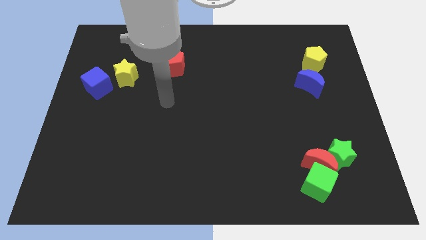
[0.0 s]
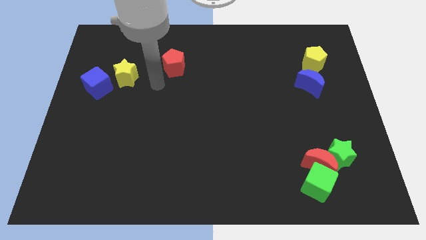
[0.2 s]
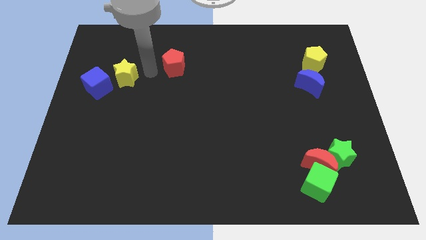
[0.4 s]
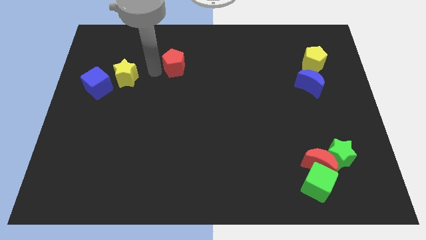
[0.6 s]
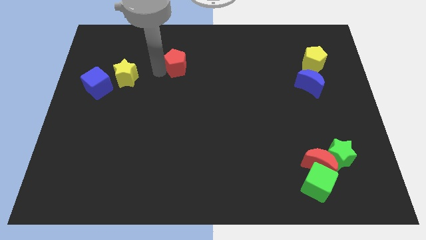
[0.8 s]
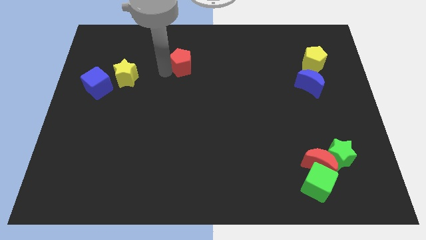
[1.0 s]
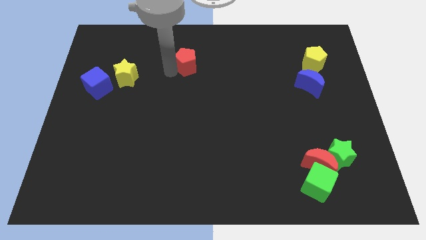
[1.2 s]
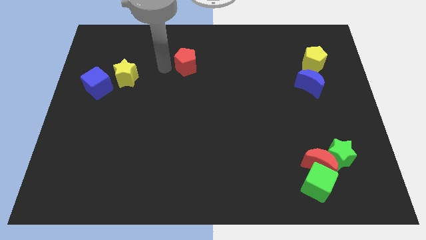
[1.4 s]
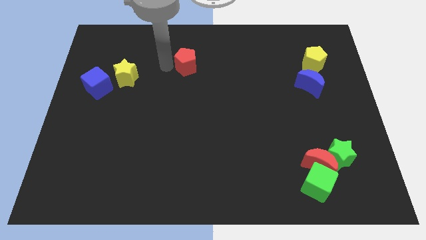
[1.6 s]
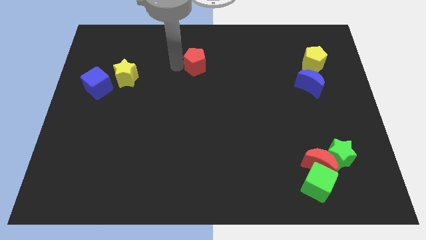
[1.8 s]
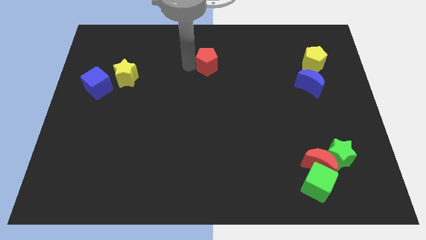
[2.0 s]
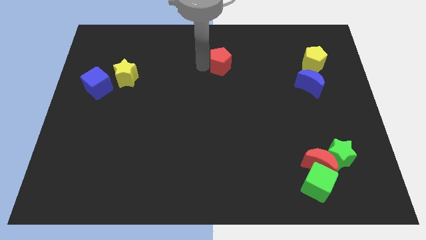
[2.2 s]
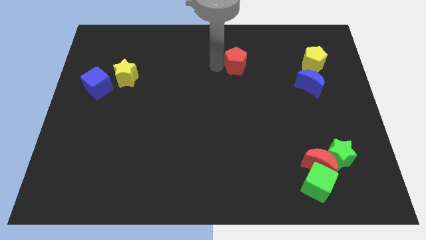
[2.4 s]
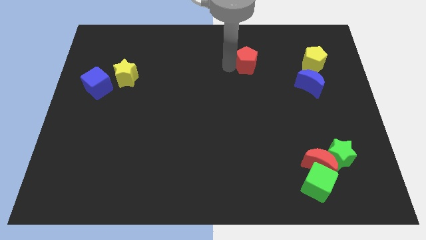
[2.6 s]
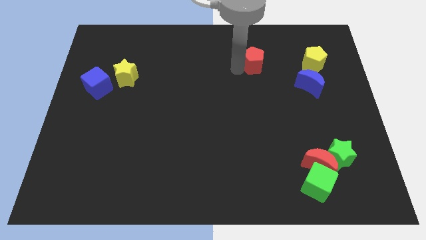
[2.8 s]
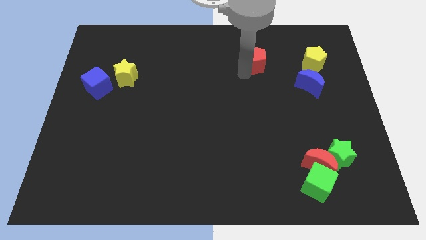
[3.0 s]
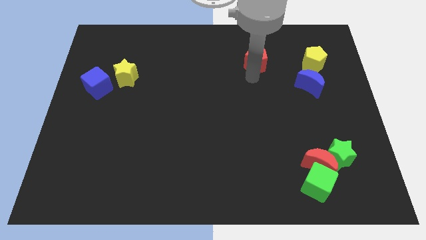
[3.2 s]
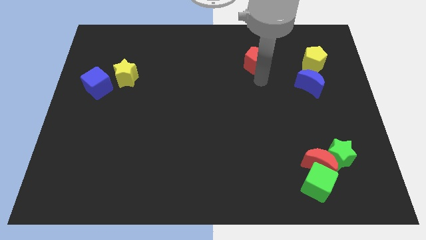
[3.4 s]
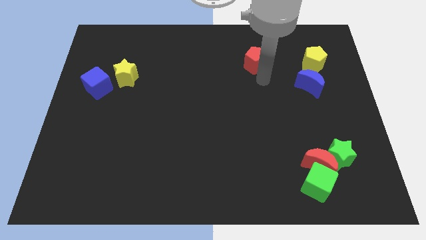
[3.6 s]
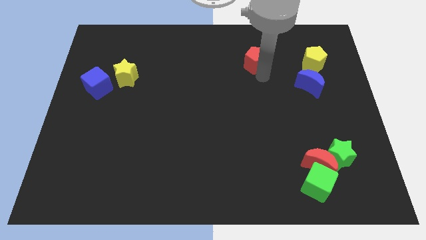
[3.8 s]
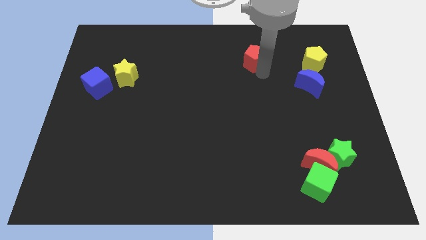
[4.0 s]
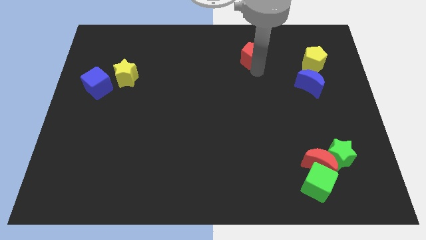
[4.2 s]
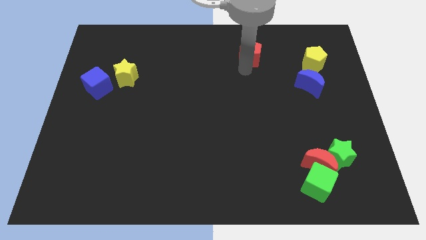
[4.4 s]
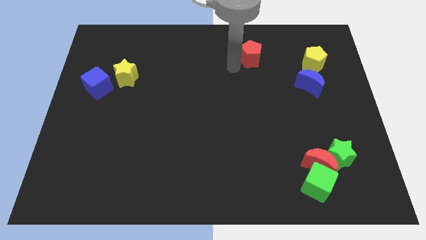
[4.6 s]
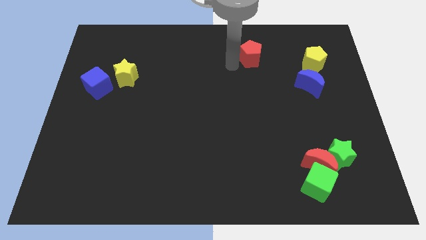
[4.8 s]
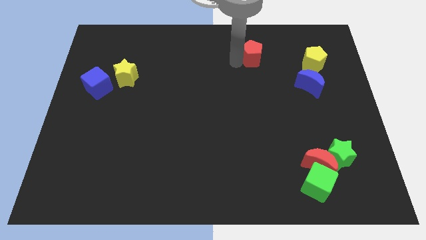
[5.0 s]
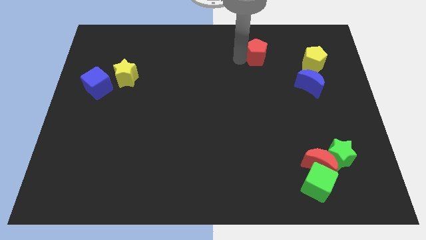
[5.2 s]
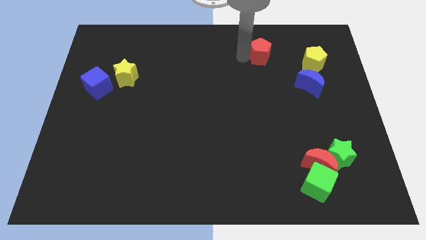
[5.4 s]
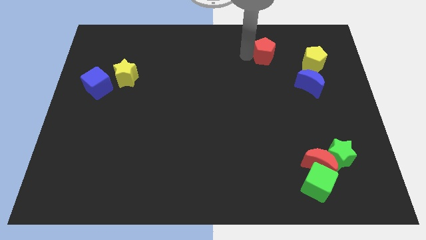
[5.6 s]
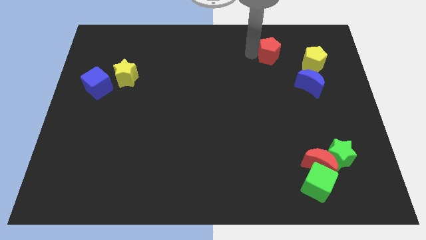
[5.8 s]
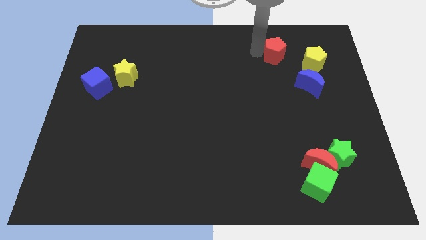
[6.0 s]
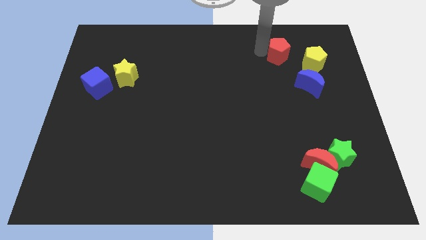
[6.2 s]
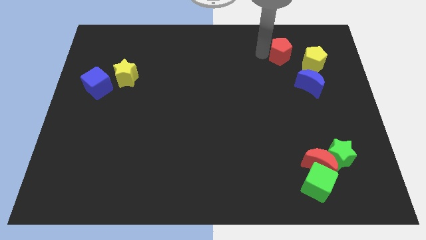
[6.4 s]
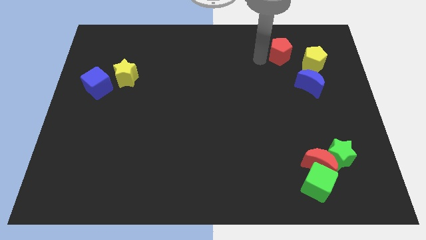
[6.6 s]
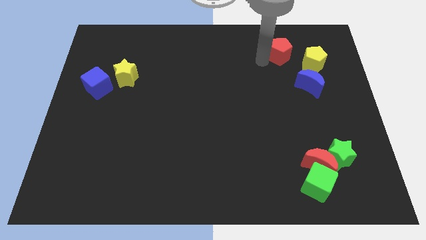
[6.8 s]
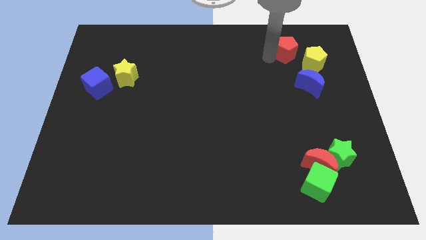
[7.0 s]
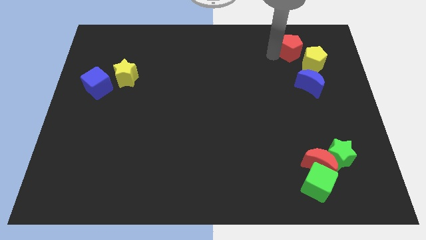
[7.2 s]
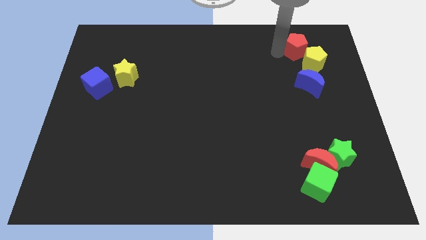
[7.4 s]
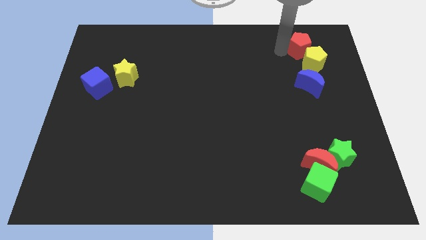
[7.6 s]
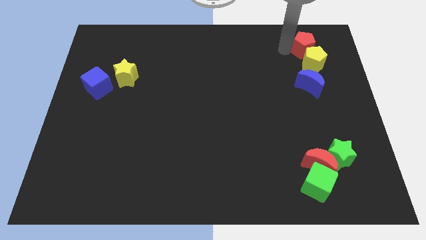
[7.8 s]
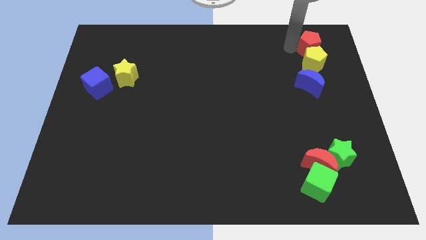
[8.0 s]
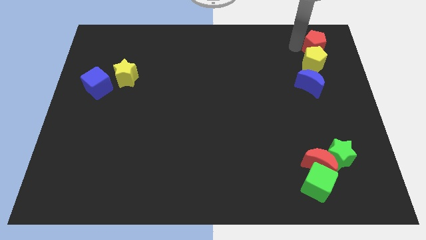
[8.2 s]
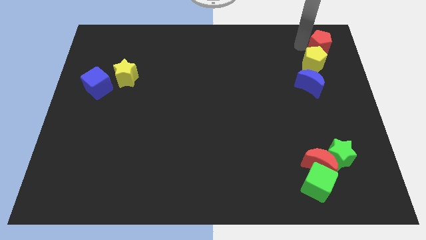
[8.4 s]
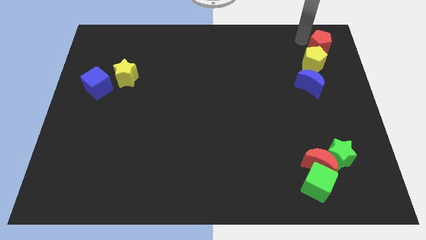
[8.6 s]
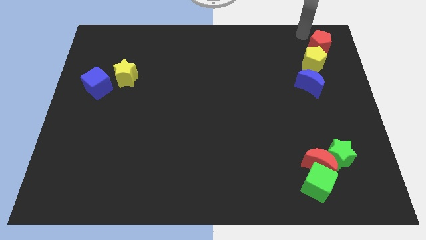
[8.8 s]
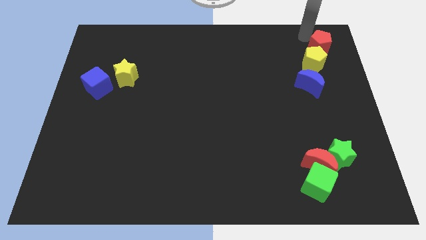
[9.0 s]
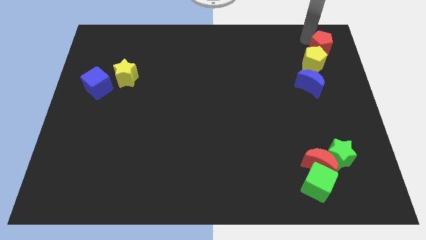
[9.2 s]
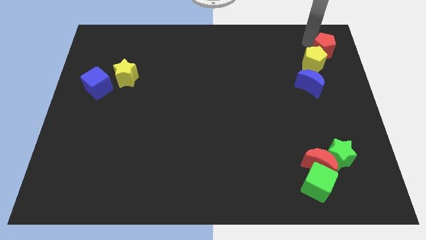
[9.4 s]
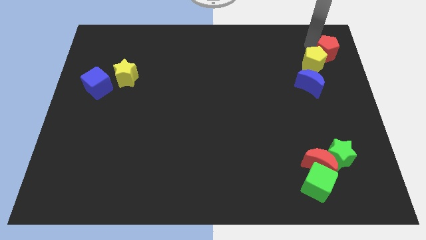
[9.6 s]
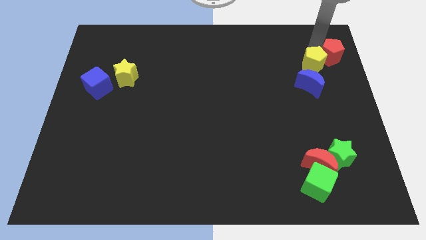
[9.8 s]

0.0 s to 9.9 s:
push the red pentagon to the top right of the blue moon

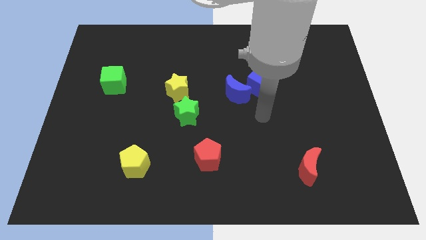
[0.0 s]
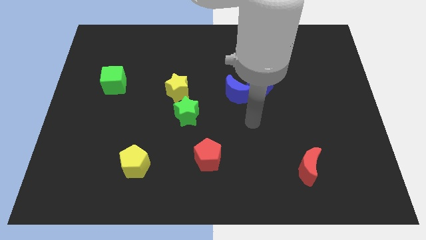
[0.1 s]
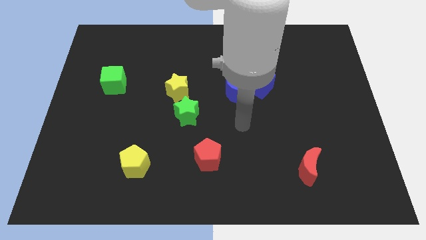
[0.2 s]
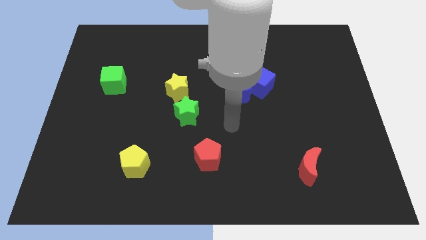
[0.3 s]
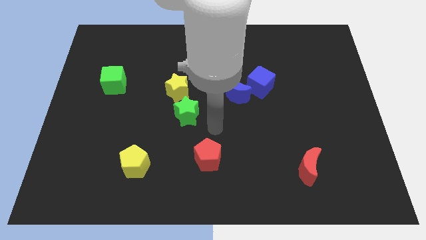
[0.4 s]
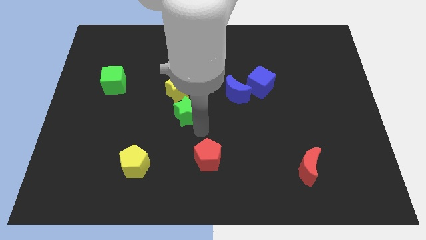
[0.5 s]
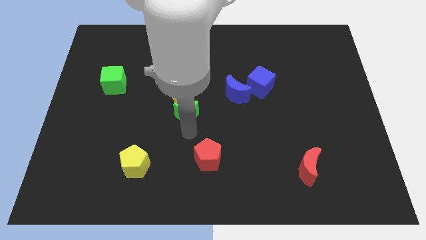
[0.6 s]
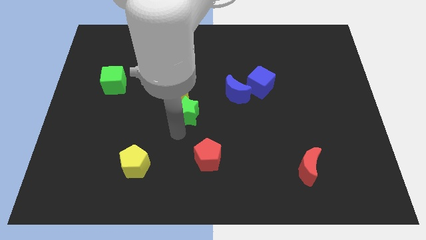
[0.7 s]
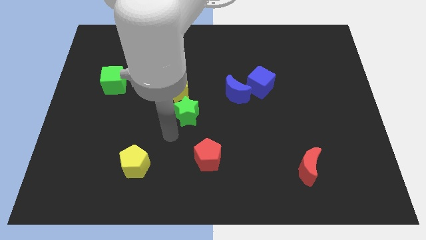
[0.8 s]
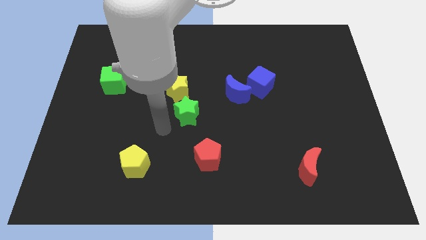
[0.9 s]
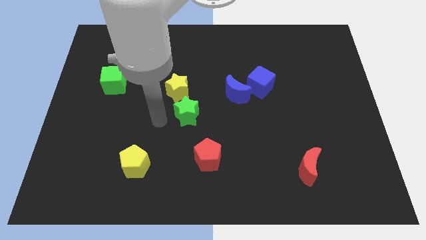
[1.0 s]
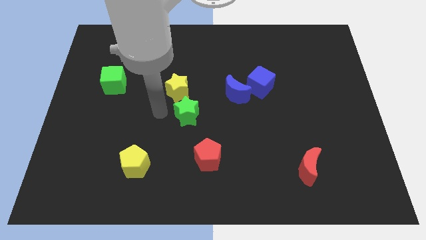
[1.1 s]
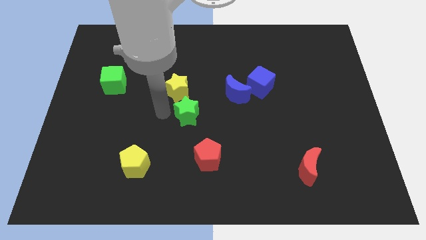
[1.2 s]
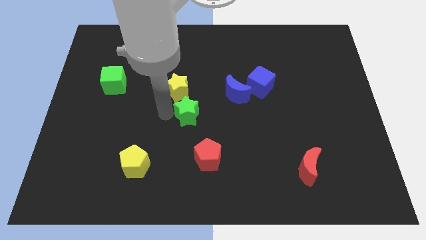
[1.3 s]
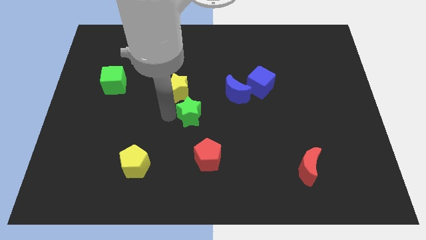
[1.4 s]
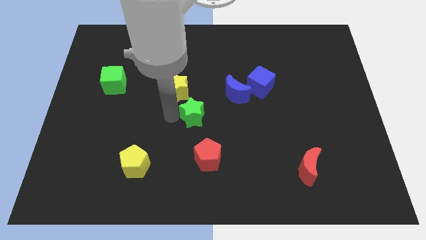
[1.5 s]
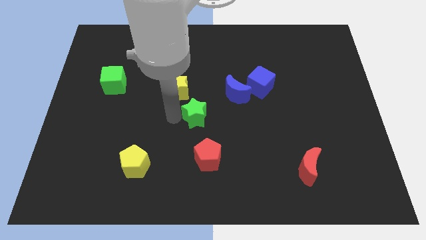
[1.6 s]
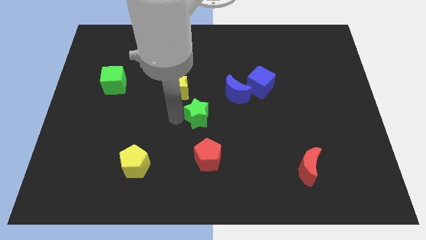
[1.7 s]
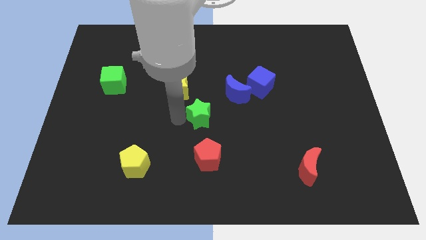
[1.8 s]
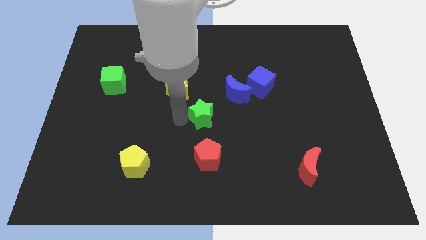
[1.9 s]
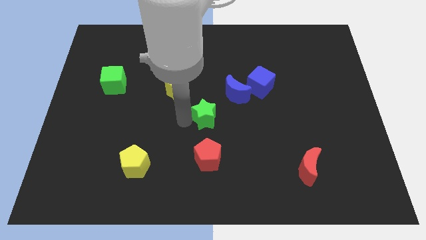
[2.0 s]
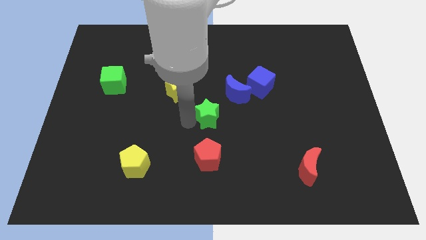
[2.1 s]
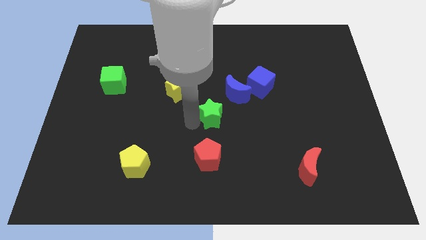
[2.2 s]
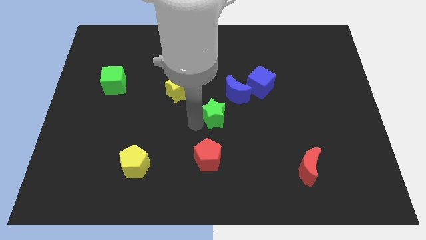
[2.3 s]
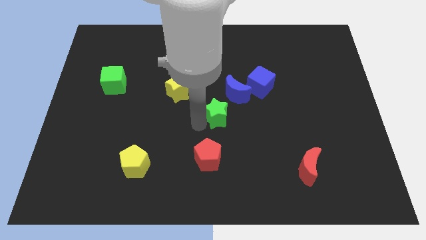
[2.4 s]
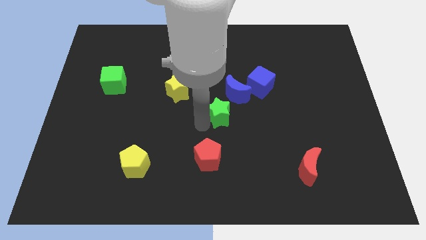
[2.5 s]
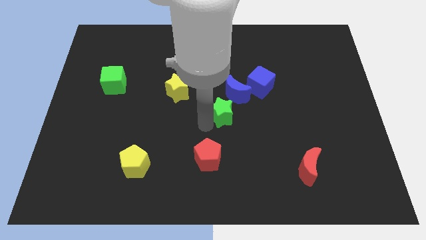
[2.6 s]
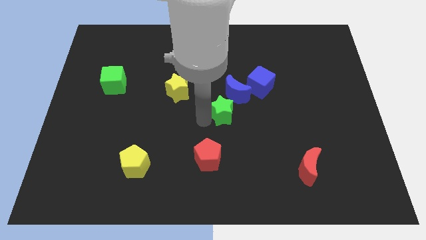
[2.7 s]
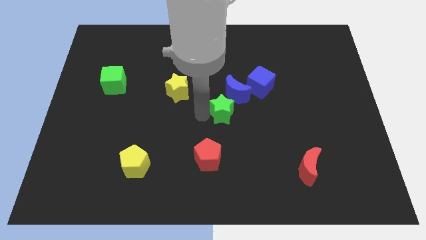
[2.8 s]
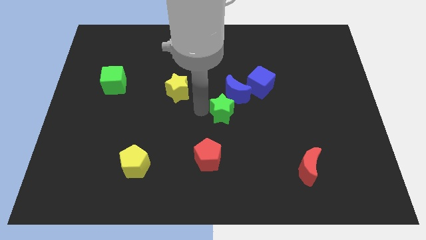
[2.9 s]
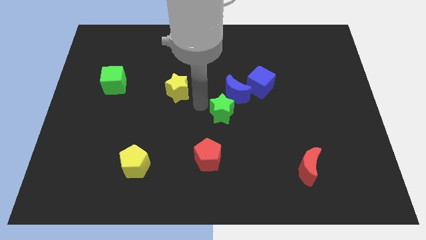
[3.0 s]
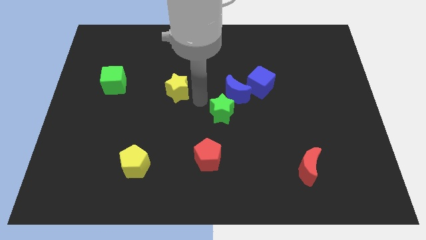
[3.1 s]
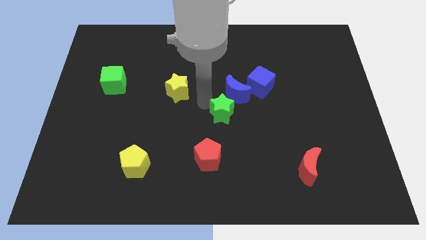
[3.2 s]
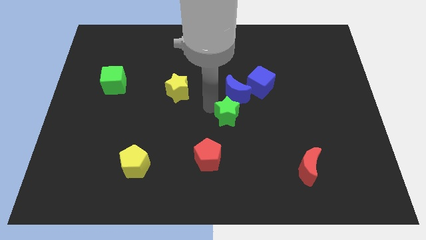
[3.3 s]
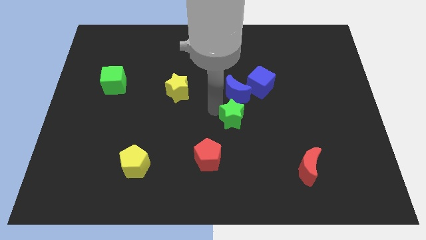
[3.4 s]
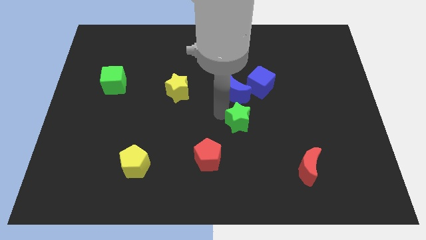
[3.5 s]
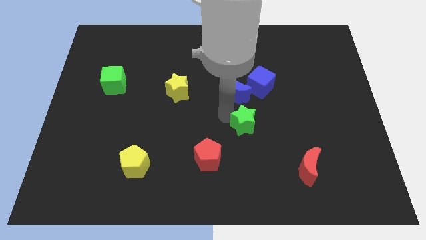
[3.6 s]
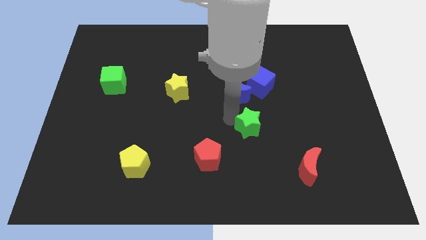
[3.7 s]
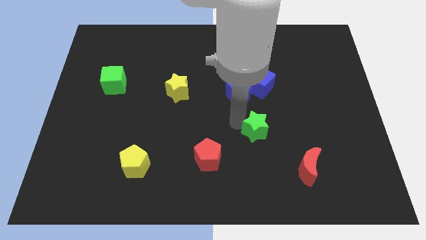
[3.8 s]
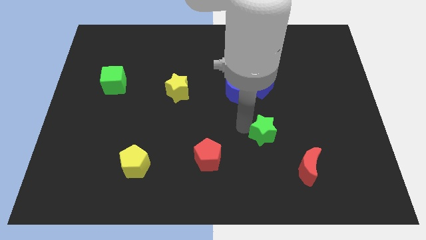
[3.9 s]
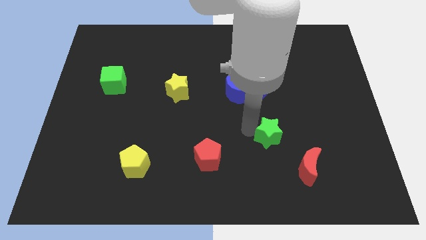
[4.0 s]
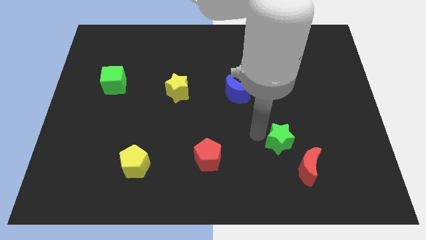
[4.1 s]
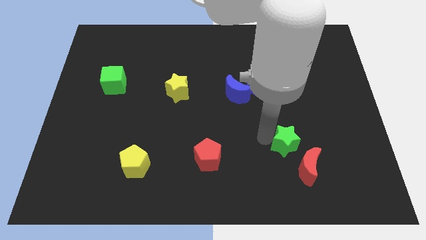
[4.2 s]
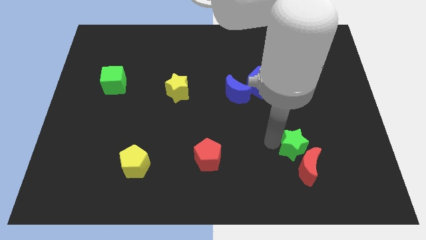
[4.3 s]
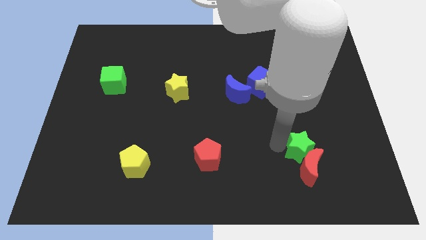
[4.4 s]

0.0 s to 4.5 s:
put the green star diagonally up and to the right of the red moon
